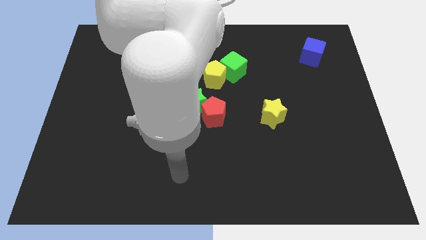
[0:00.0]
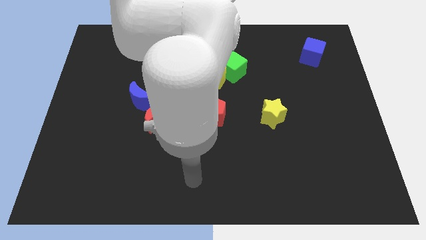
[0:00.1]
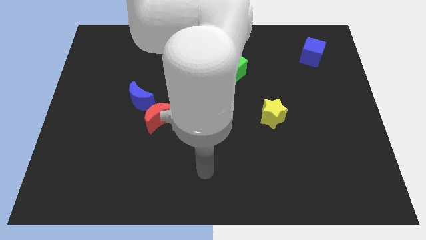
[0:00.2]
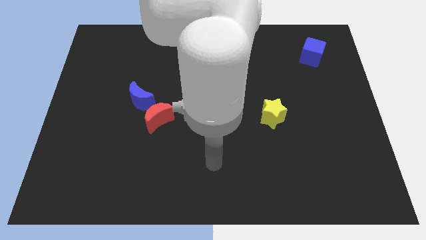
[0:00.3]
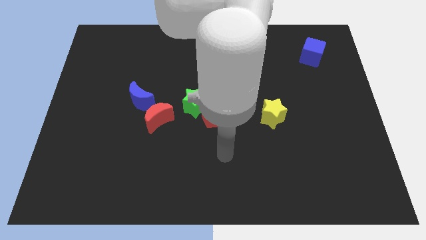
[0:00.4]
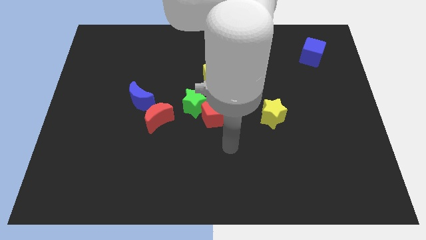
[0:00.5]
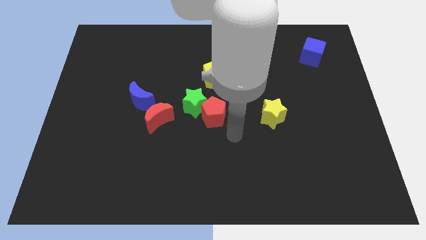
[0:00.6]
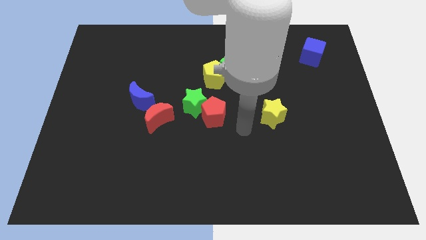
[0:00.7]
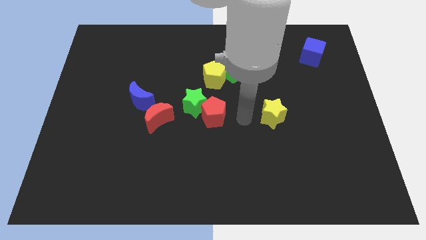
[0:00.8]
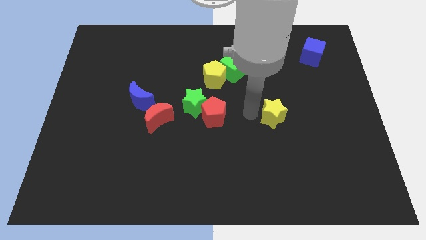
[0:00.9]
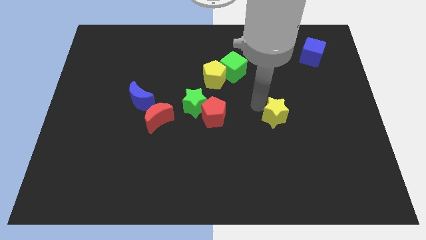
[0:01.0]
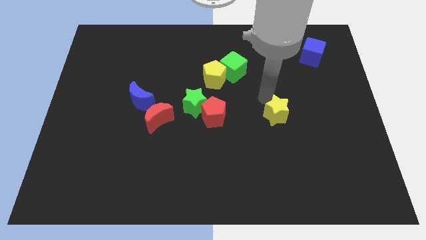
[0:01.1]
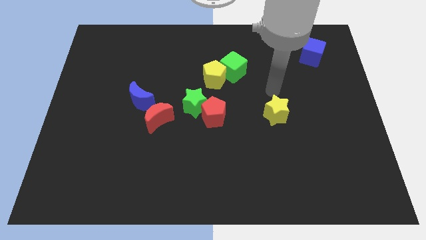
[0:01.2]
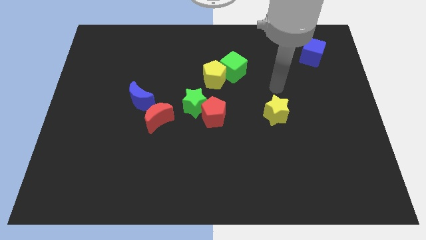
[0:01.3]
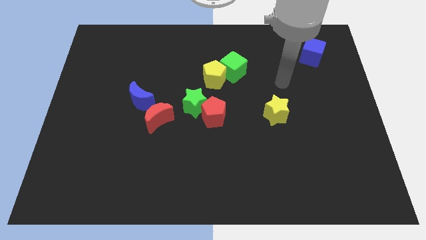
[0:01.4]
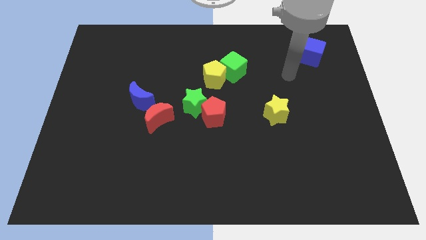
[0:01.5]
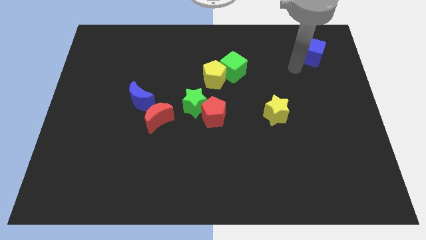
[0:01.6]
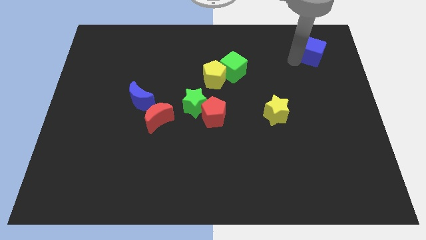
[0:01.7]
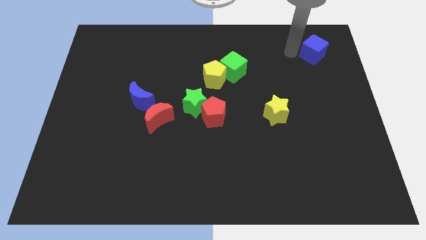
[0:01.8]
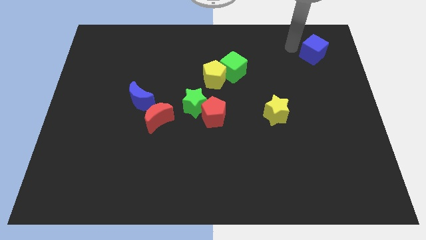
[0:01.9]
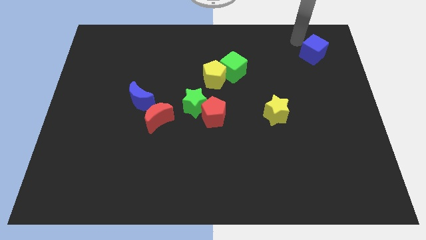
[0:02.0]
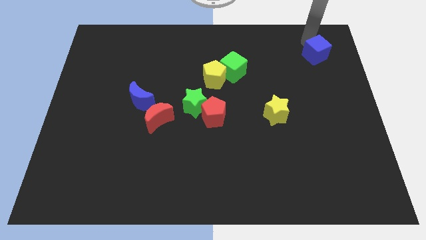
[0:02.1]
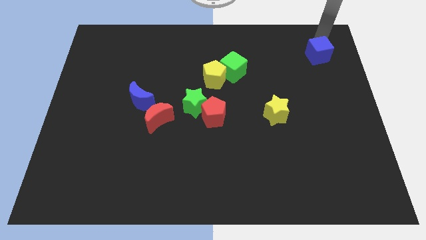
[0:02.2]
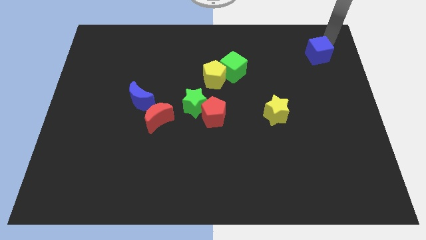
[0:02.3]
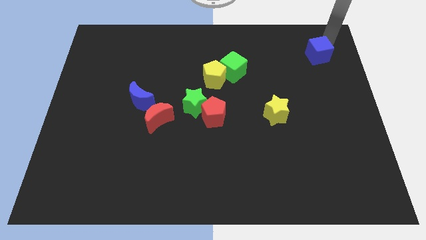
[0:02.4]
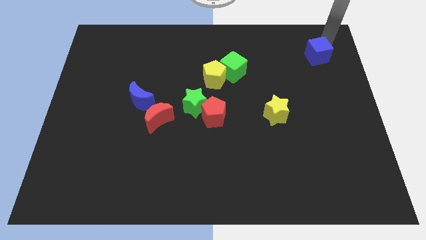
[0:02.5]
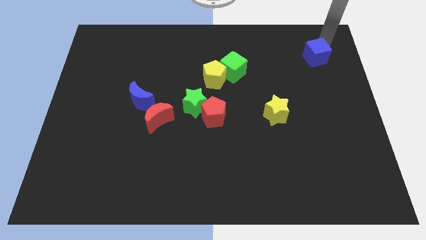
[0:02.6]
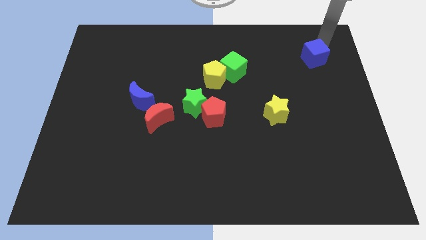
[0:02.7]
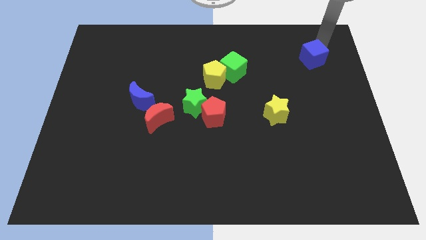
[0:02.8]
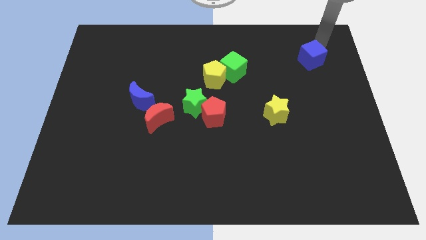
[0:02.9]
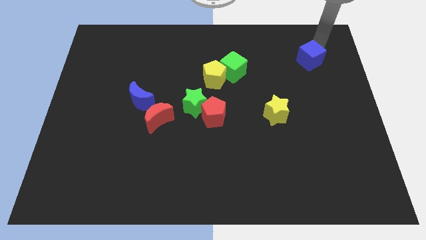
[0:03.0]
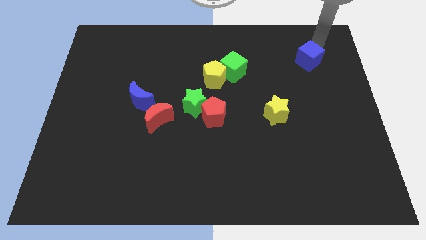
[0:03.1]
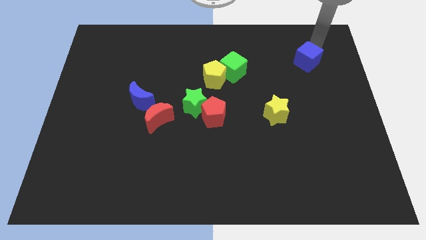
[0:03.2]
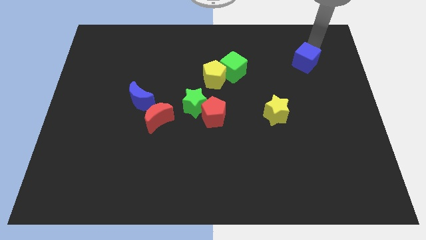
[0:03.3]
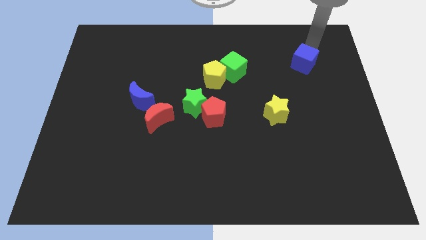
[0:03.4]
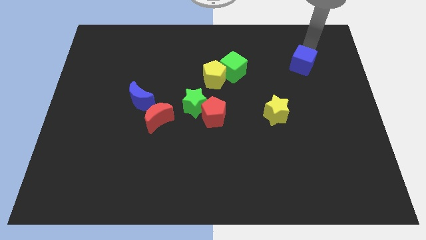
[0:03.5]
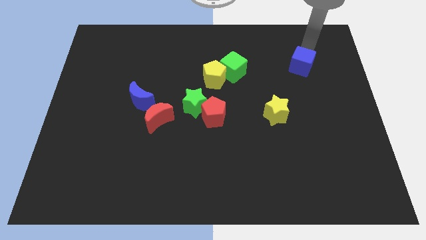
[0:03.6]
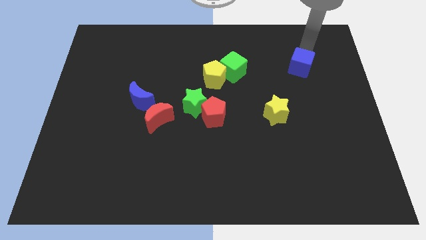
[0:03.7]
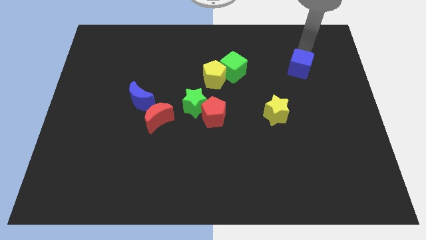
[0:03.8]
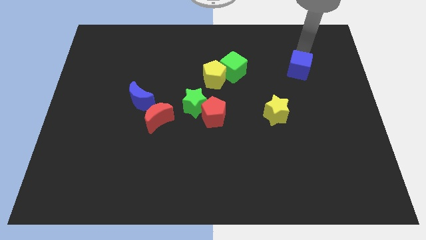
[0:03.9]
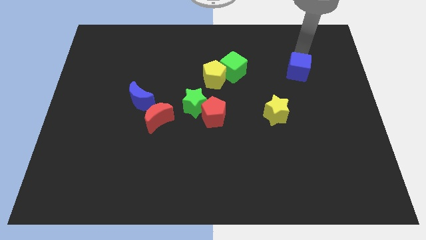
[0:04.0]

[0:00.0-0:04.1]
slide the blue cube downwards and then left slightly

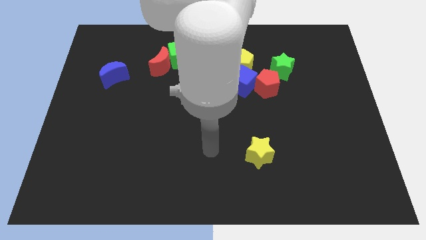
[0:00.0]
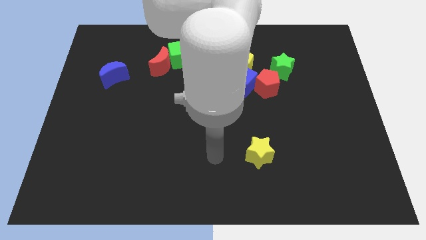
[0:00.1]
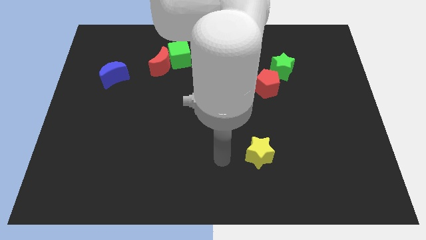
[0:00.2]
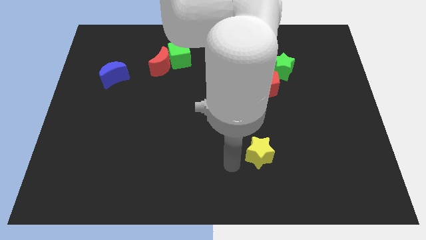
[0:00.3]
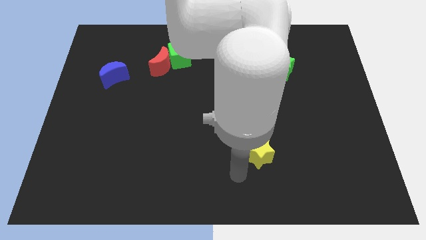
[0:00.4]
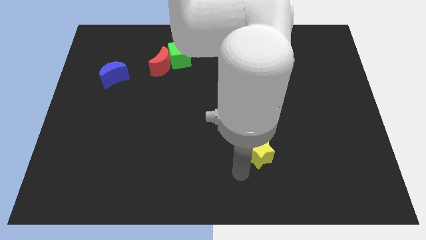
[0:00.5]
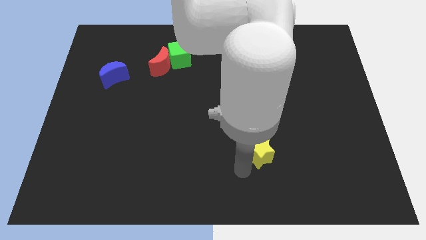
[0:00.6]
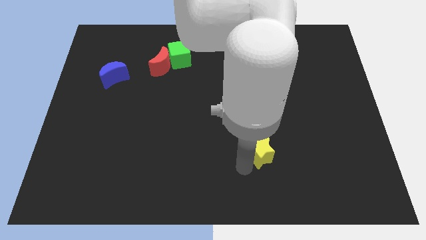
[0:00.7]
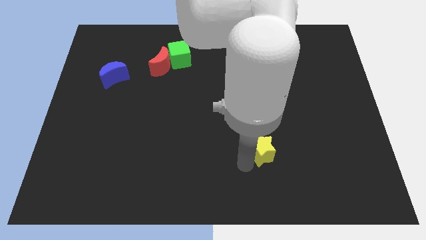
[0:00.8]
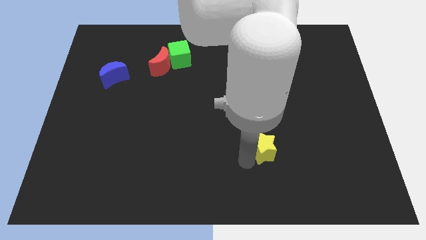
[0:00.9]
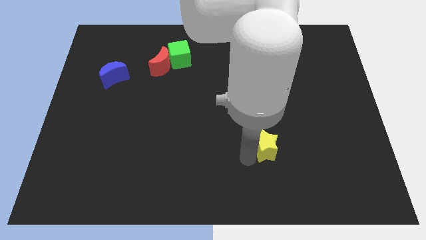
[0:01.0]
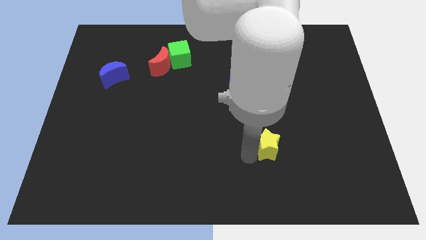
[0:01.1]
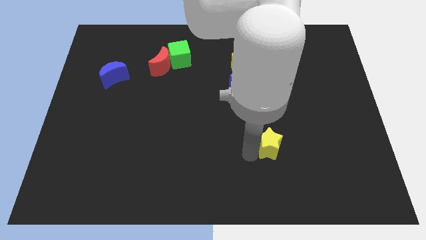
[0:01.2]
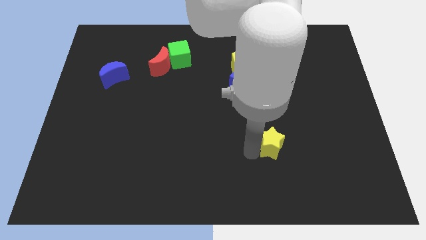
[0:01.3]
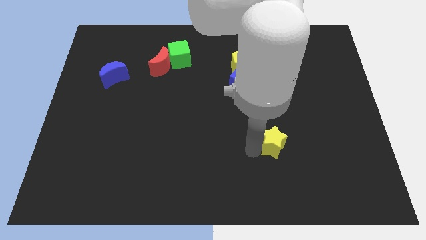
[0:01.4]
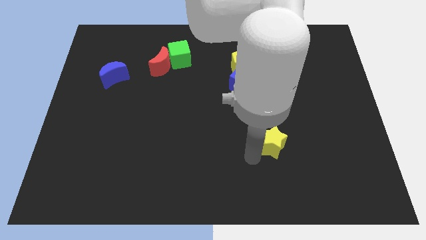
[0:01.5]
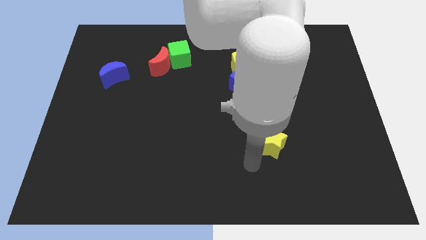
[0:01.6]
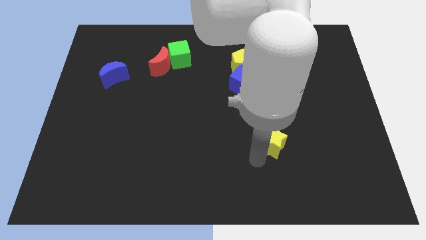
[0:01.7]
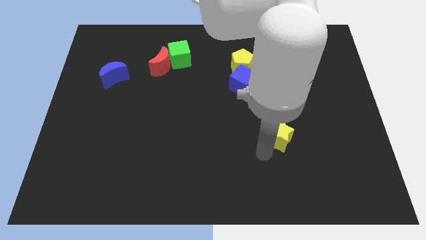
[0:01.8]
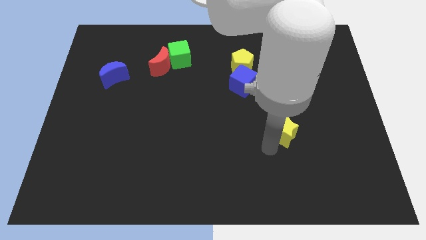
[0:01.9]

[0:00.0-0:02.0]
slightly move the yellow star up and right

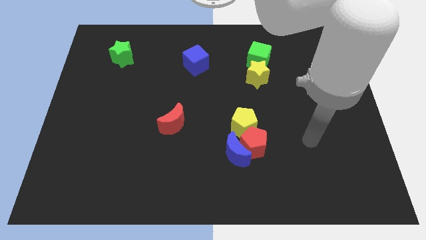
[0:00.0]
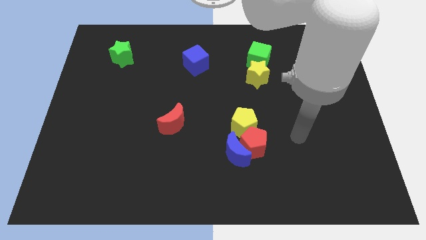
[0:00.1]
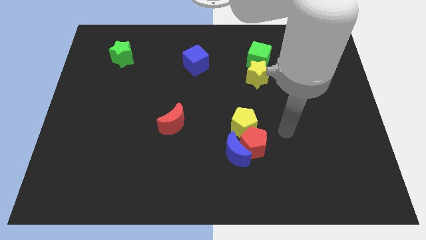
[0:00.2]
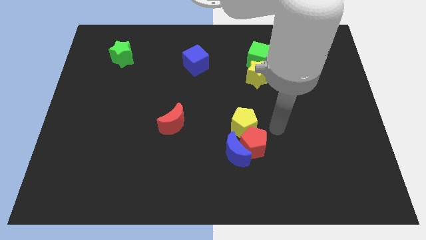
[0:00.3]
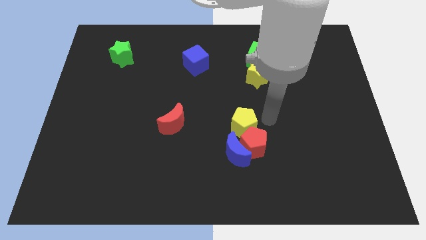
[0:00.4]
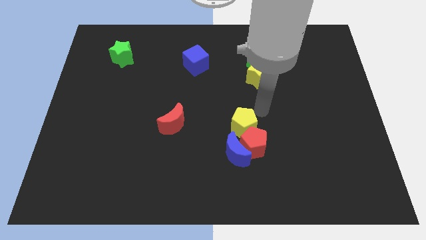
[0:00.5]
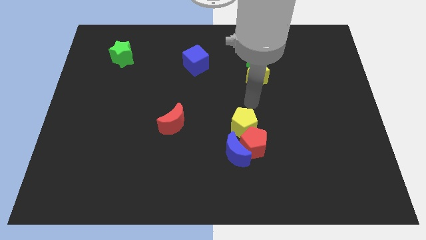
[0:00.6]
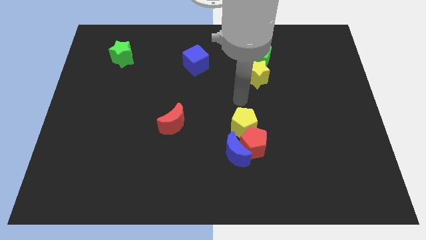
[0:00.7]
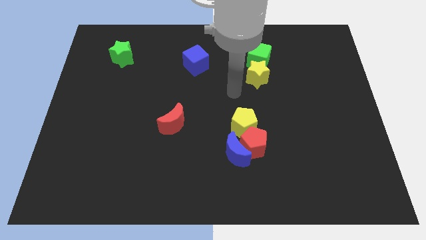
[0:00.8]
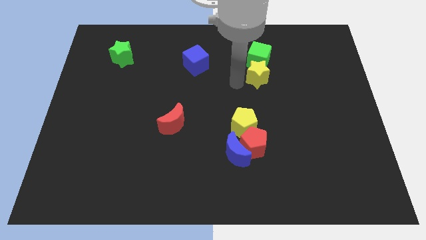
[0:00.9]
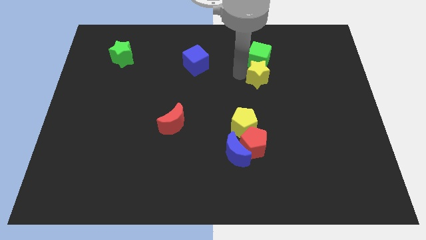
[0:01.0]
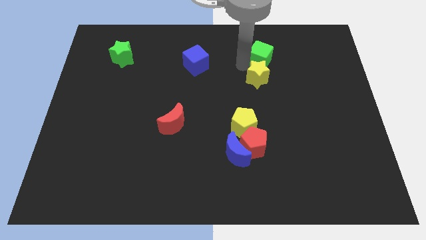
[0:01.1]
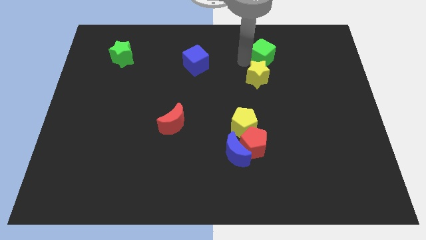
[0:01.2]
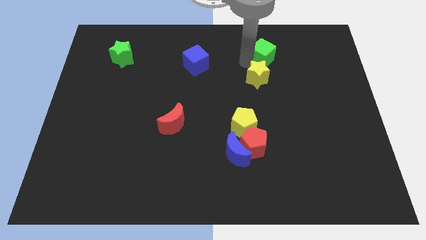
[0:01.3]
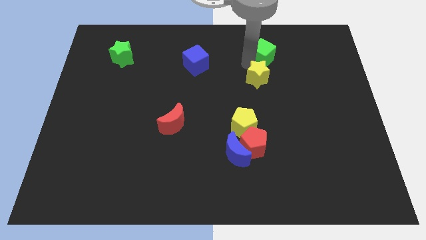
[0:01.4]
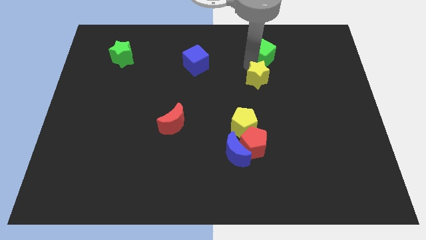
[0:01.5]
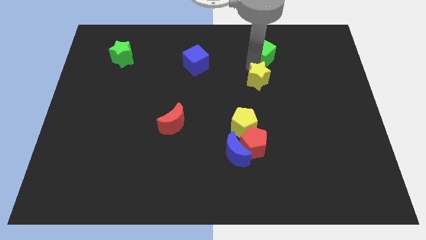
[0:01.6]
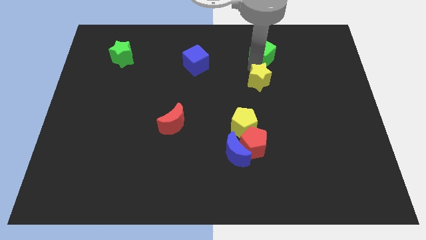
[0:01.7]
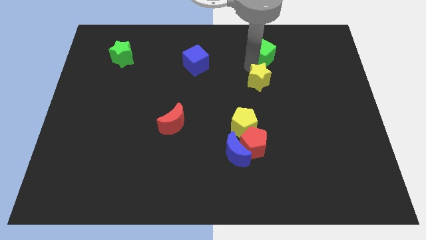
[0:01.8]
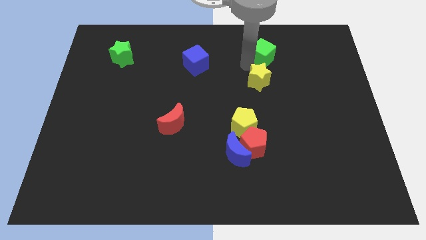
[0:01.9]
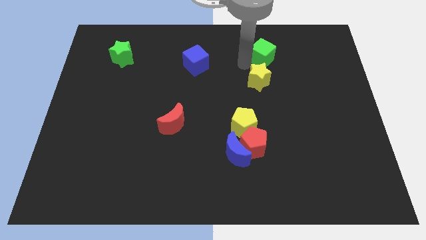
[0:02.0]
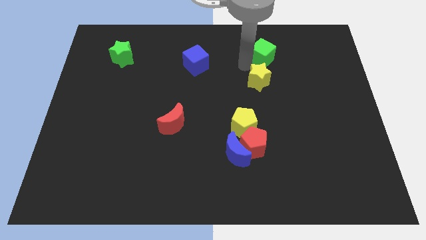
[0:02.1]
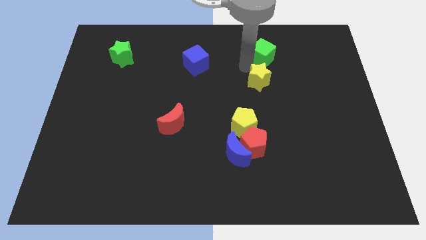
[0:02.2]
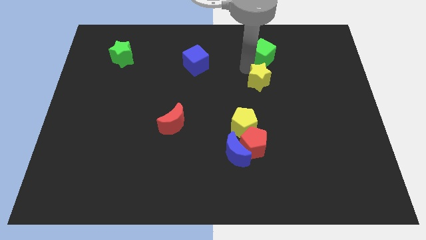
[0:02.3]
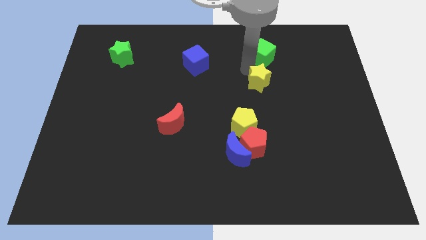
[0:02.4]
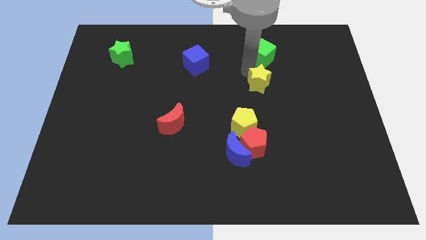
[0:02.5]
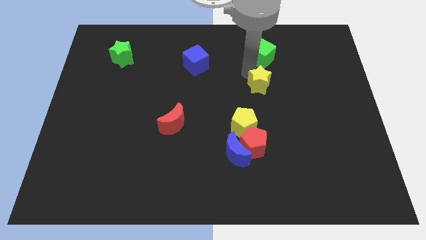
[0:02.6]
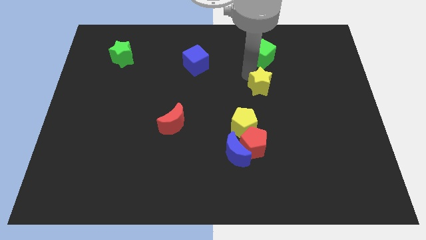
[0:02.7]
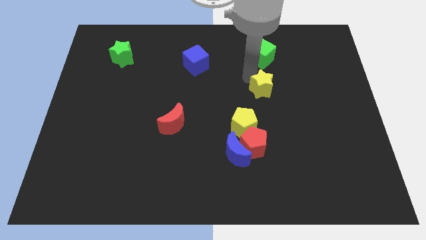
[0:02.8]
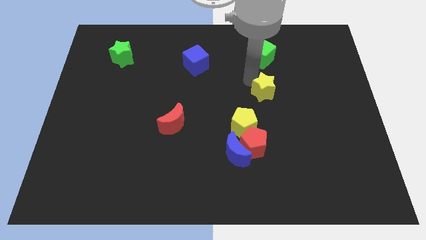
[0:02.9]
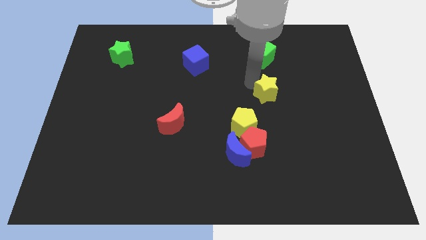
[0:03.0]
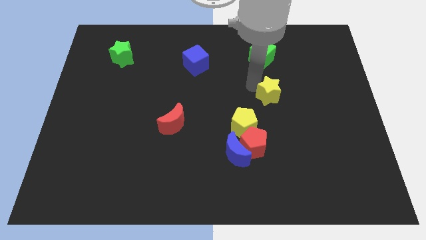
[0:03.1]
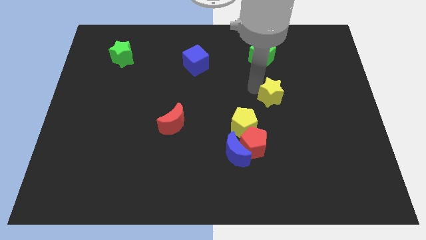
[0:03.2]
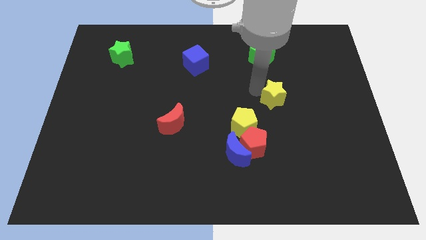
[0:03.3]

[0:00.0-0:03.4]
slide the yellow star slightly downwards and right
